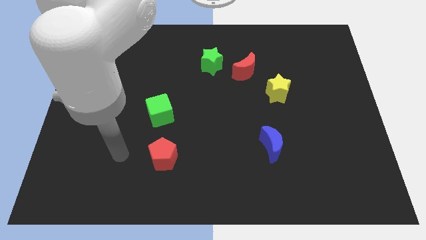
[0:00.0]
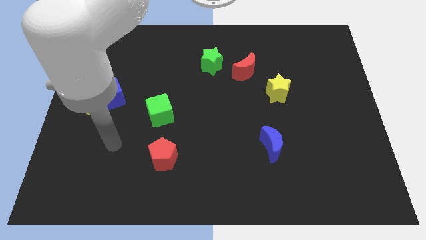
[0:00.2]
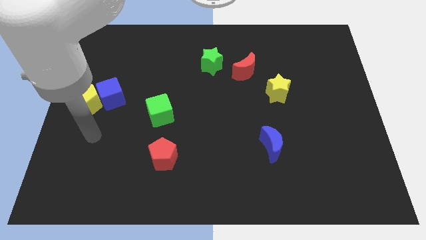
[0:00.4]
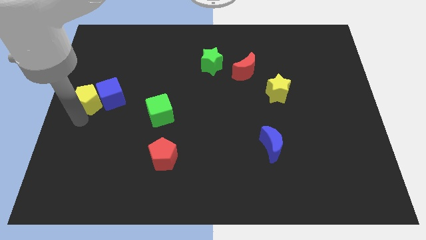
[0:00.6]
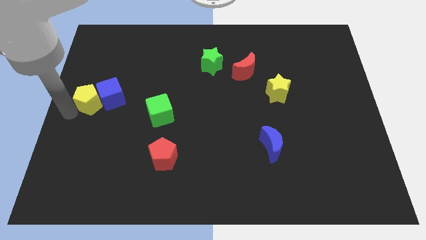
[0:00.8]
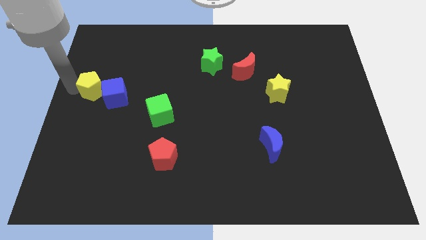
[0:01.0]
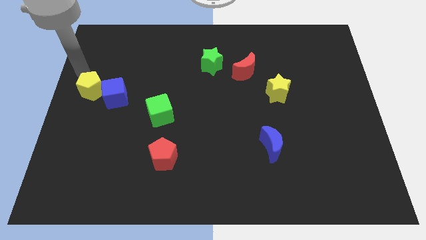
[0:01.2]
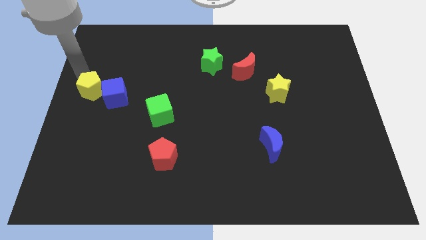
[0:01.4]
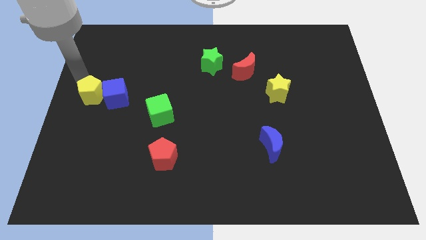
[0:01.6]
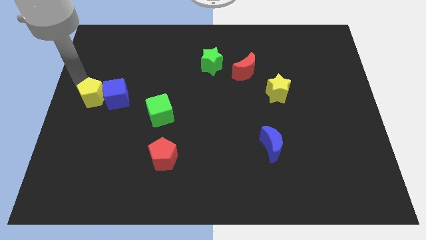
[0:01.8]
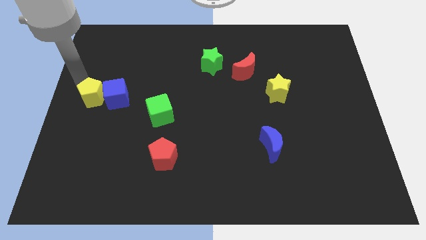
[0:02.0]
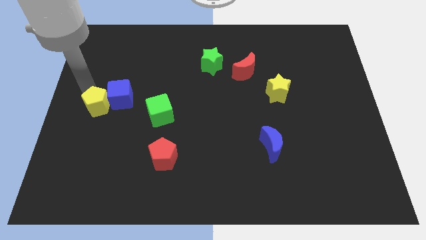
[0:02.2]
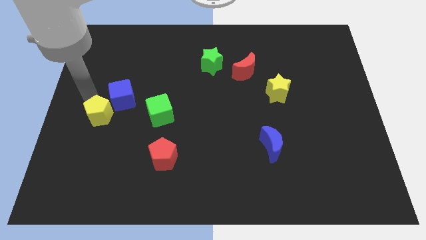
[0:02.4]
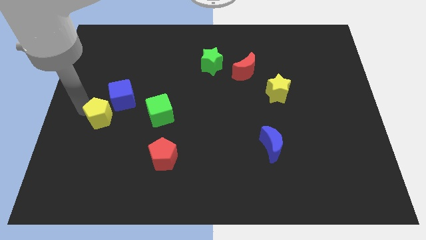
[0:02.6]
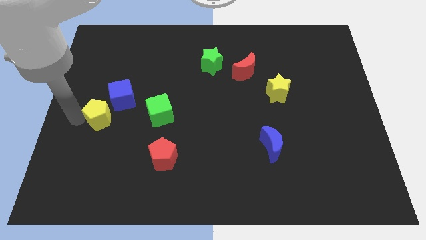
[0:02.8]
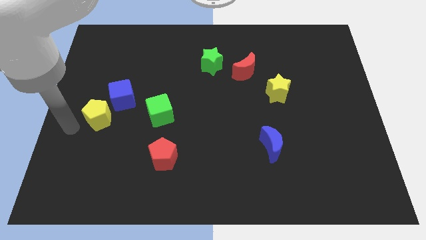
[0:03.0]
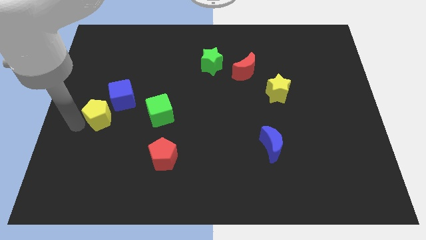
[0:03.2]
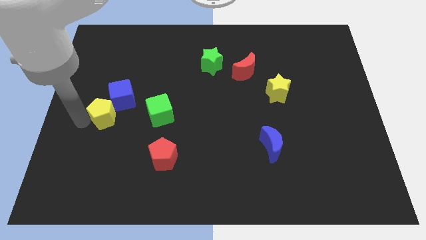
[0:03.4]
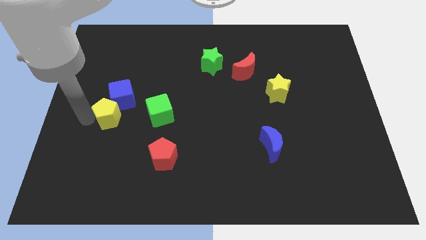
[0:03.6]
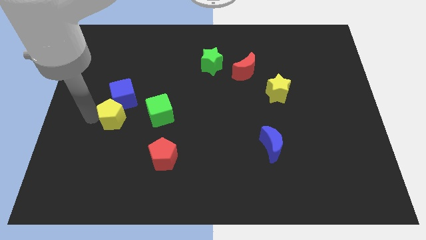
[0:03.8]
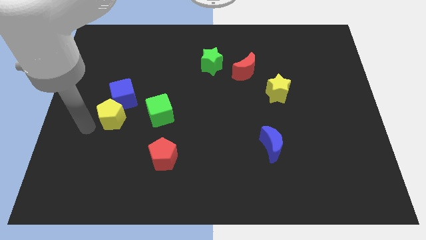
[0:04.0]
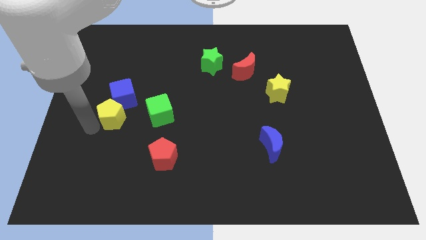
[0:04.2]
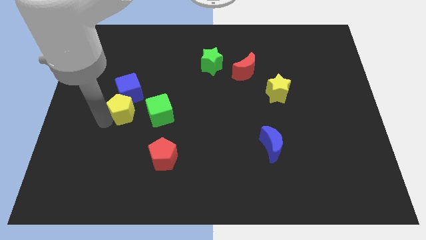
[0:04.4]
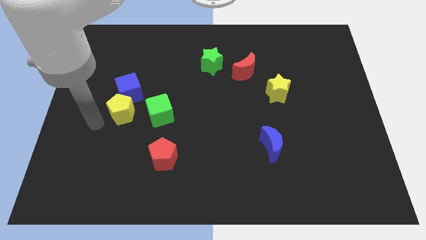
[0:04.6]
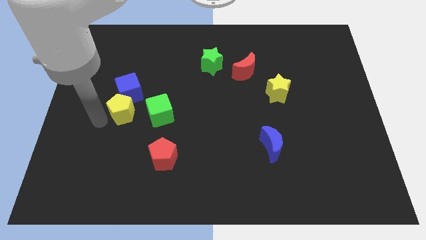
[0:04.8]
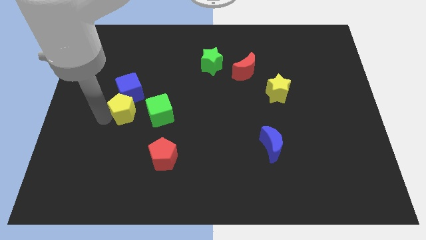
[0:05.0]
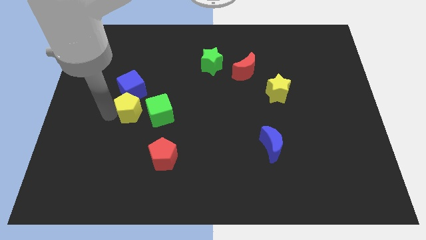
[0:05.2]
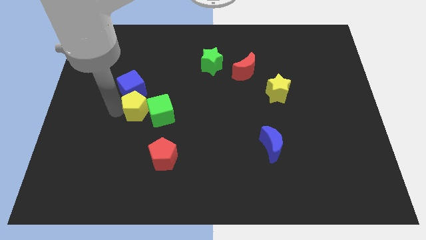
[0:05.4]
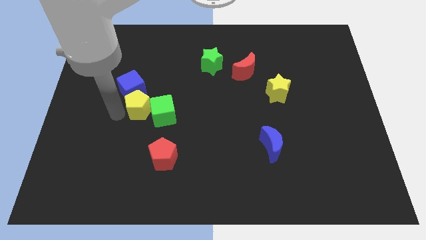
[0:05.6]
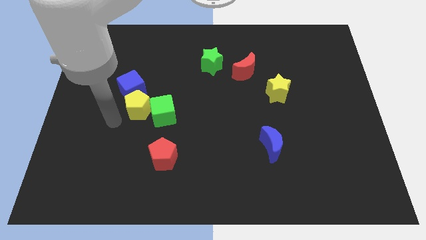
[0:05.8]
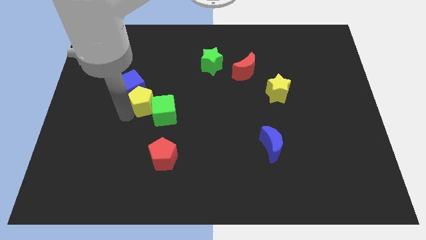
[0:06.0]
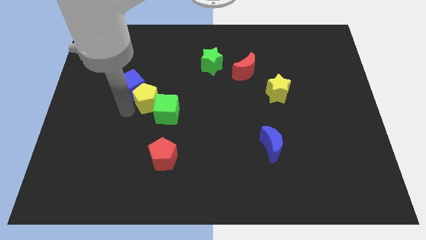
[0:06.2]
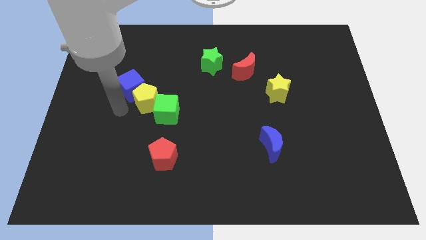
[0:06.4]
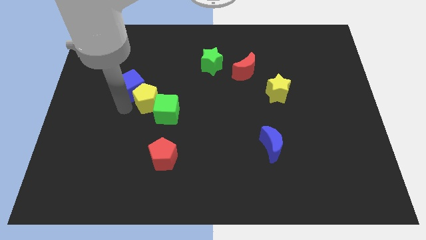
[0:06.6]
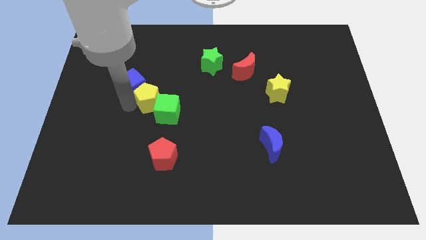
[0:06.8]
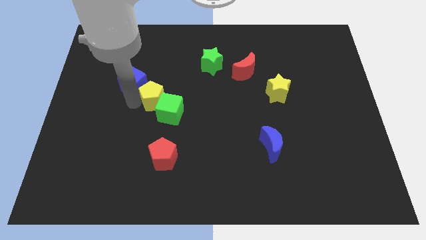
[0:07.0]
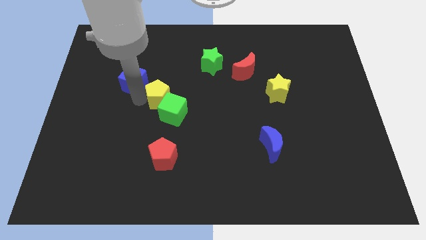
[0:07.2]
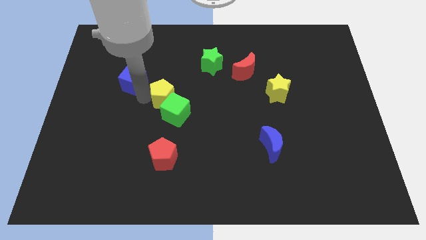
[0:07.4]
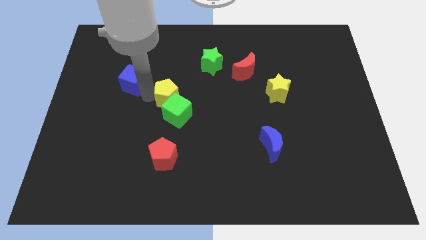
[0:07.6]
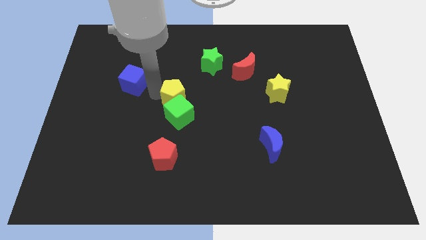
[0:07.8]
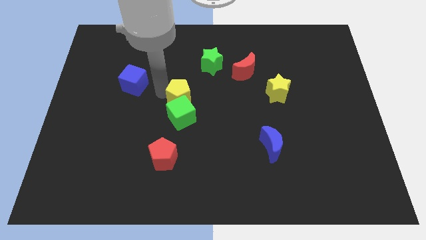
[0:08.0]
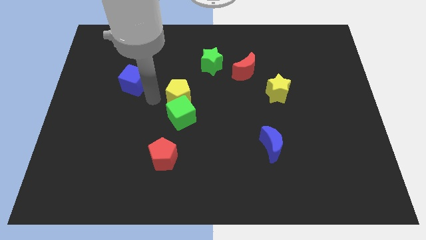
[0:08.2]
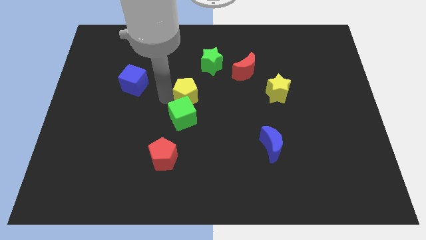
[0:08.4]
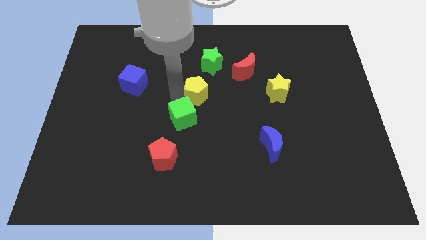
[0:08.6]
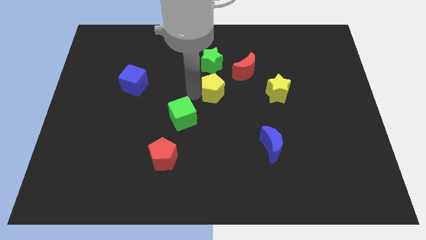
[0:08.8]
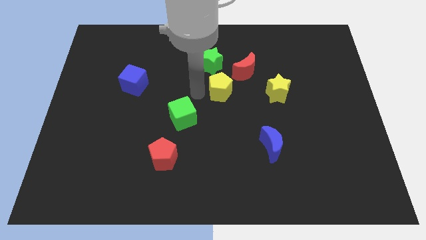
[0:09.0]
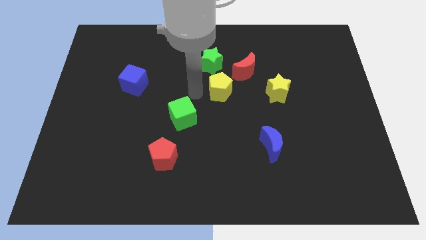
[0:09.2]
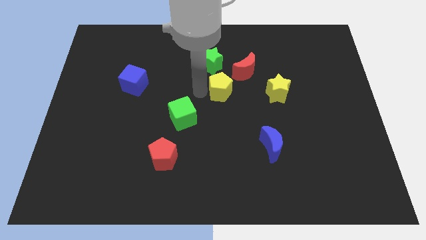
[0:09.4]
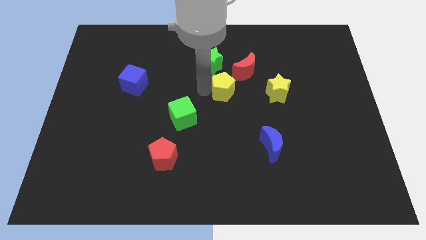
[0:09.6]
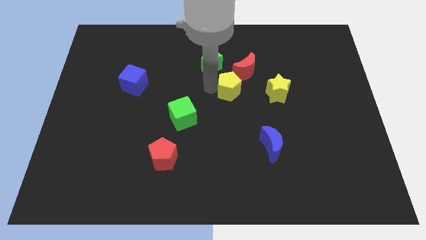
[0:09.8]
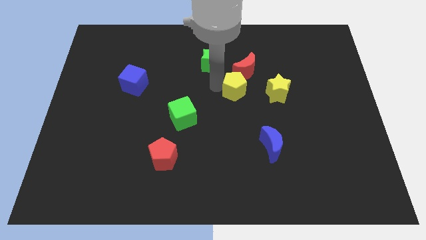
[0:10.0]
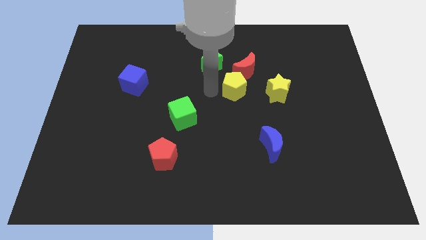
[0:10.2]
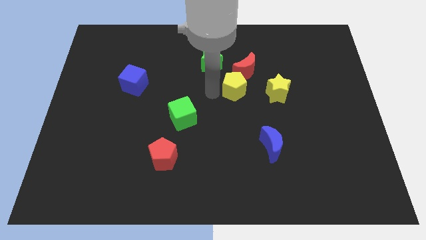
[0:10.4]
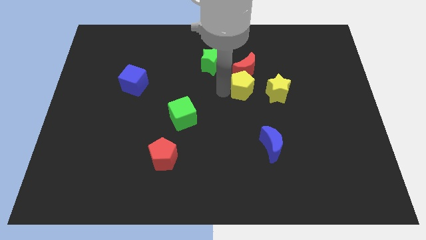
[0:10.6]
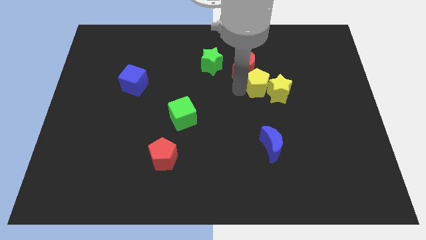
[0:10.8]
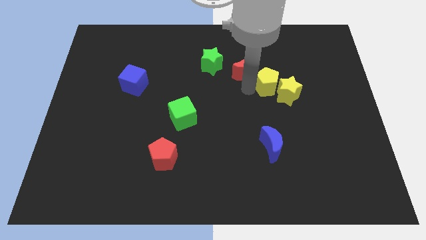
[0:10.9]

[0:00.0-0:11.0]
put the yellow pentagon to the right side of the red moon
